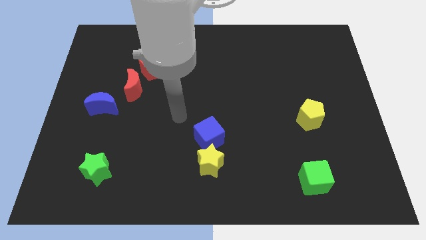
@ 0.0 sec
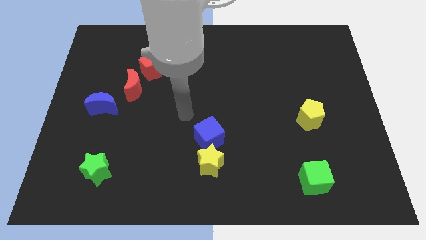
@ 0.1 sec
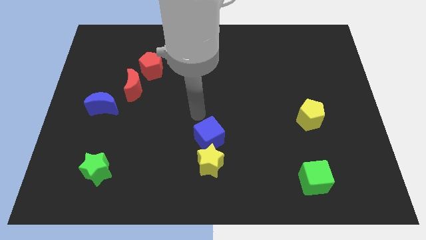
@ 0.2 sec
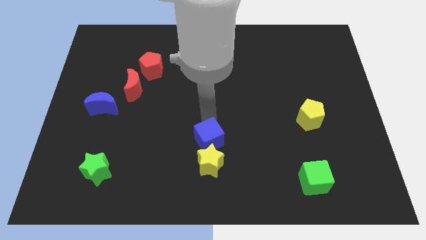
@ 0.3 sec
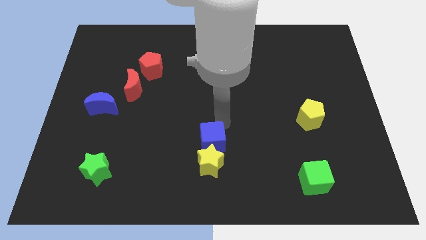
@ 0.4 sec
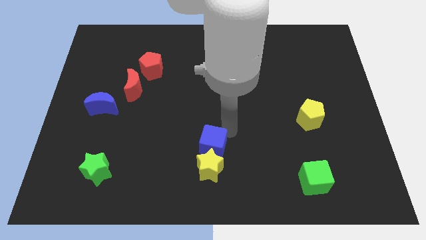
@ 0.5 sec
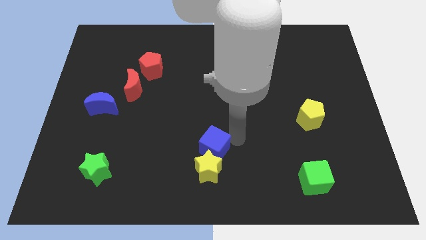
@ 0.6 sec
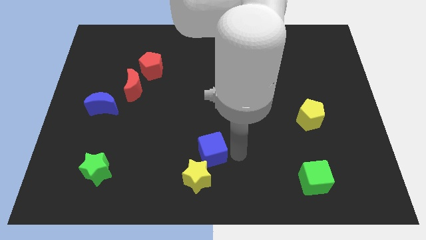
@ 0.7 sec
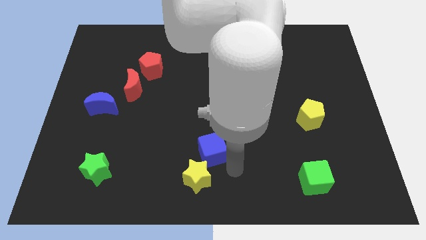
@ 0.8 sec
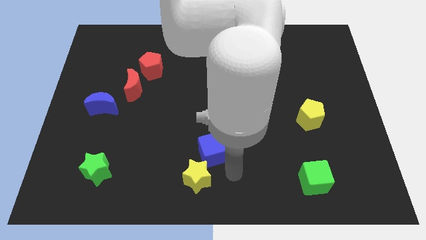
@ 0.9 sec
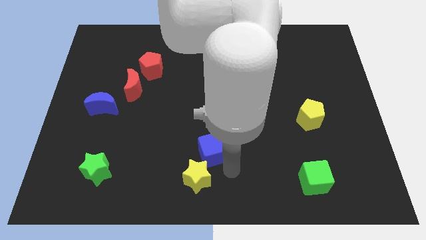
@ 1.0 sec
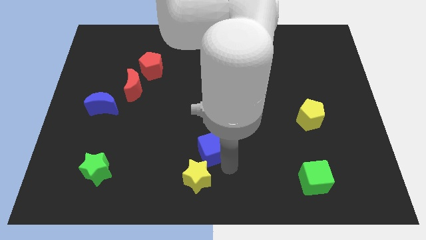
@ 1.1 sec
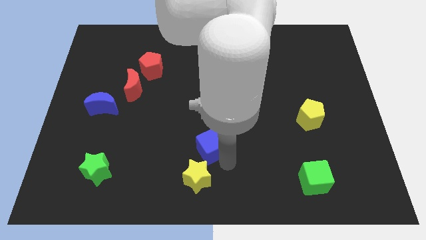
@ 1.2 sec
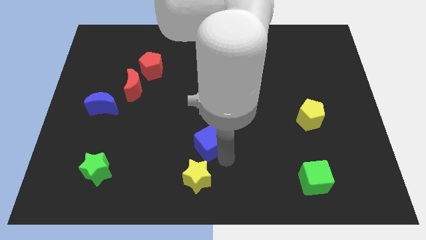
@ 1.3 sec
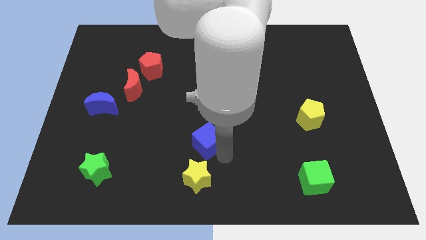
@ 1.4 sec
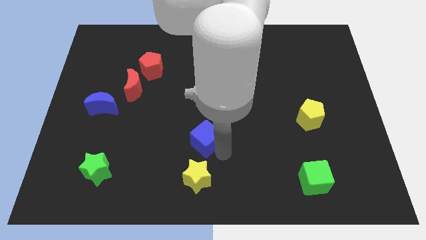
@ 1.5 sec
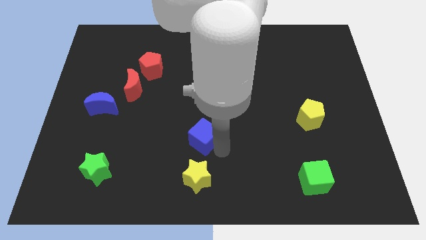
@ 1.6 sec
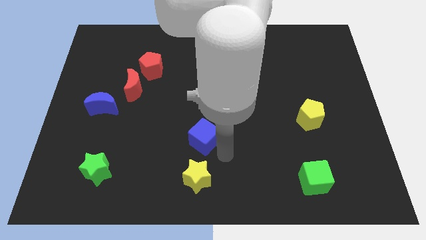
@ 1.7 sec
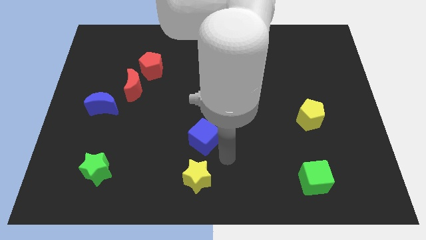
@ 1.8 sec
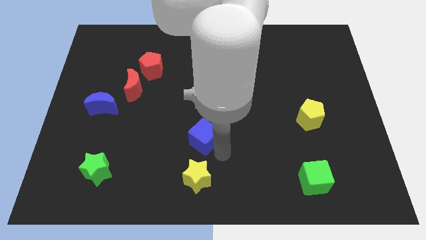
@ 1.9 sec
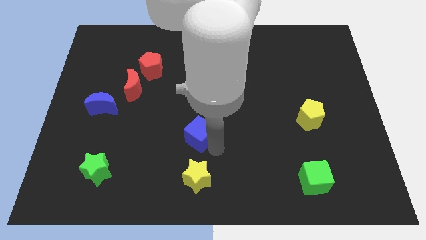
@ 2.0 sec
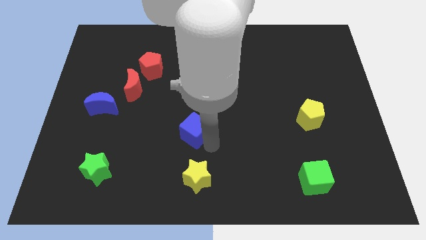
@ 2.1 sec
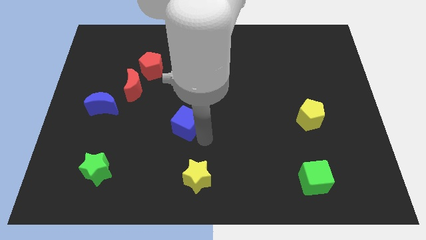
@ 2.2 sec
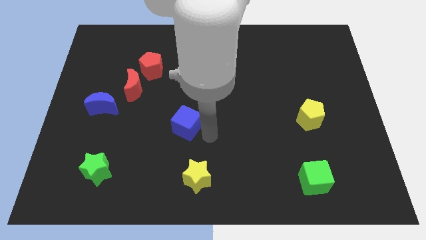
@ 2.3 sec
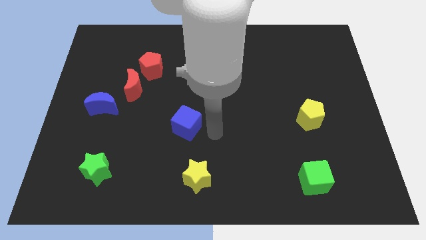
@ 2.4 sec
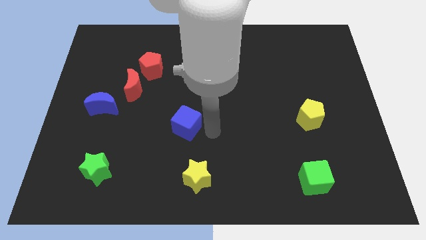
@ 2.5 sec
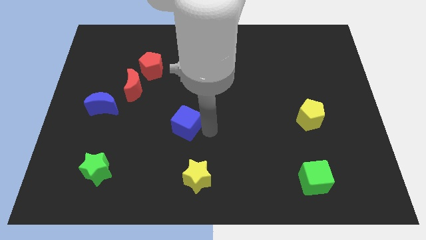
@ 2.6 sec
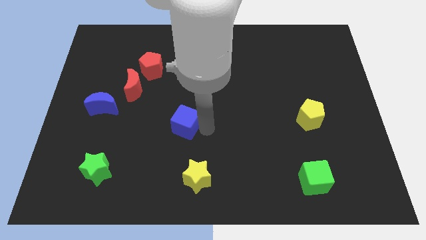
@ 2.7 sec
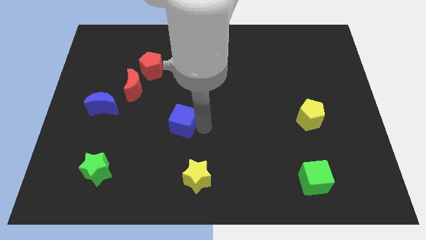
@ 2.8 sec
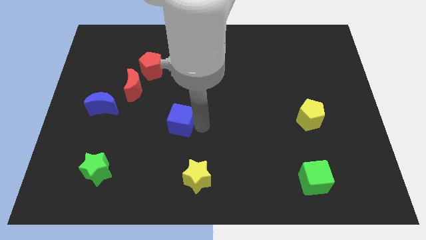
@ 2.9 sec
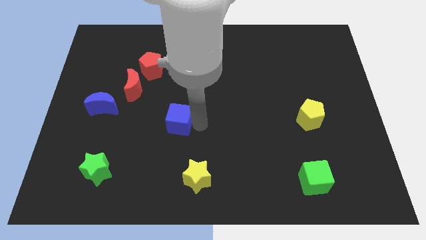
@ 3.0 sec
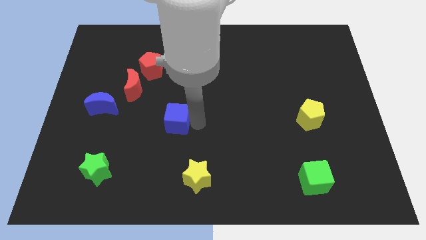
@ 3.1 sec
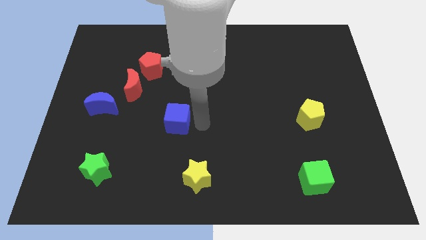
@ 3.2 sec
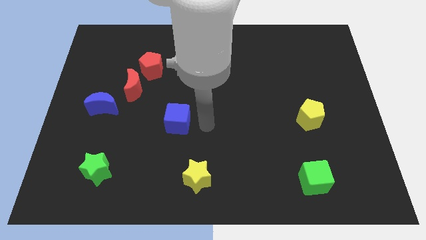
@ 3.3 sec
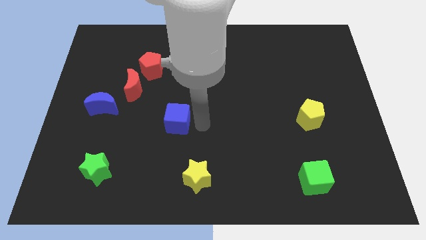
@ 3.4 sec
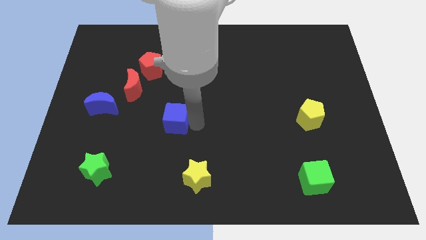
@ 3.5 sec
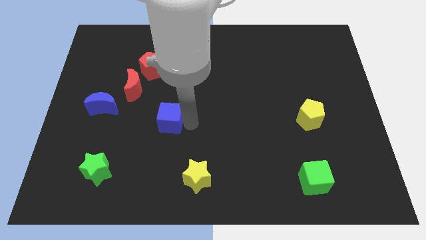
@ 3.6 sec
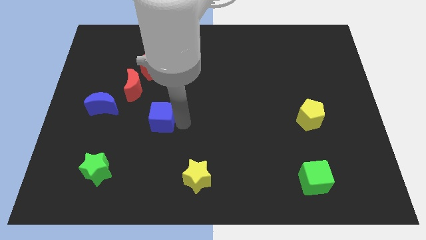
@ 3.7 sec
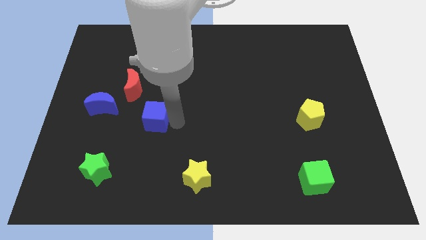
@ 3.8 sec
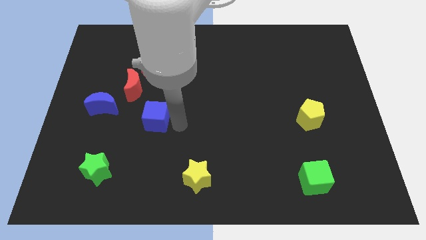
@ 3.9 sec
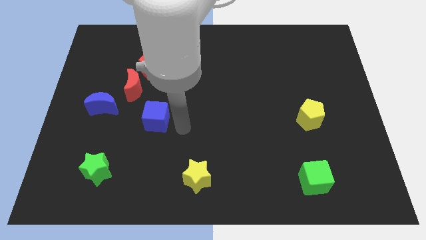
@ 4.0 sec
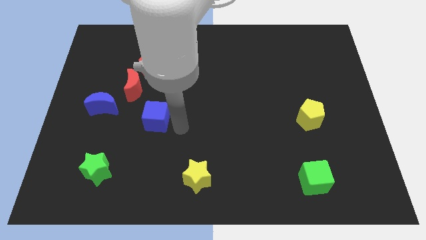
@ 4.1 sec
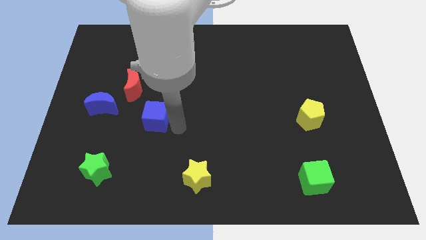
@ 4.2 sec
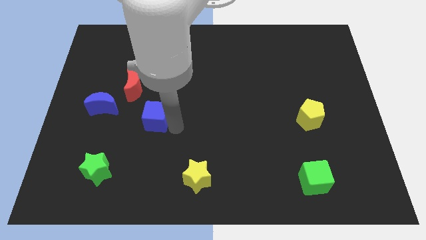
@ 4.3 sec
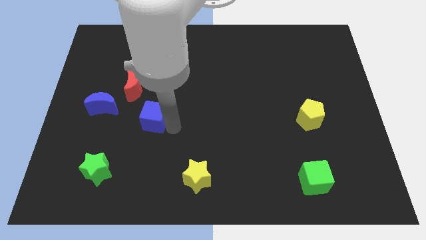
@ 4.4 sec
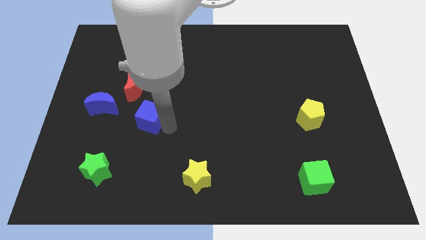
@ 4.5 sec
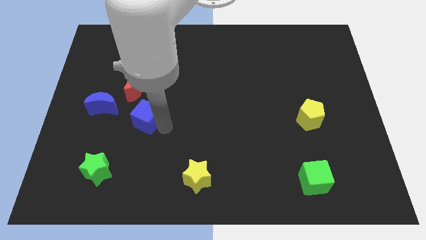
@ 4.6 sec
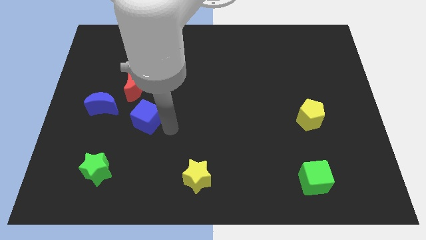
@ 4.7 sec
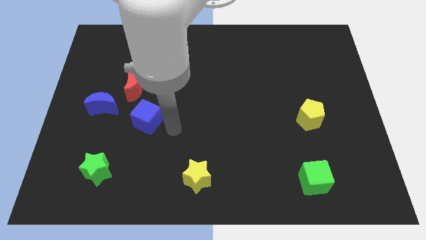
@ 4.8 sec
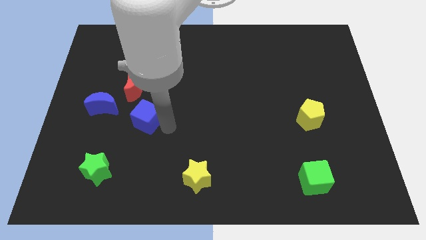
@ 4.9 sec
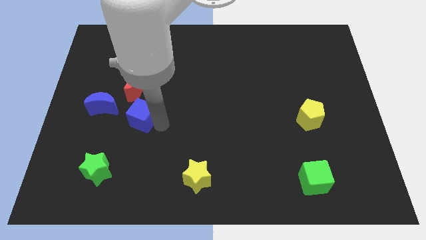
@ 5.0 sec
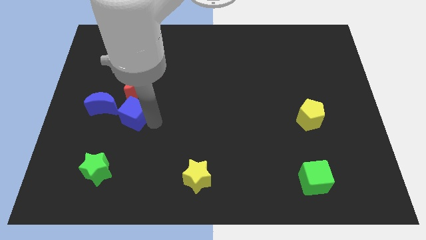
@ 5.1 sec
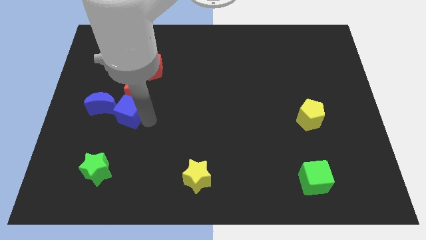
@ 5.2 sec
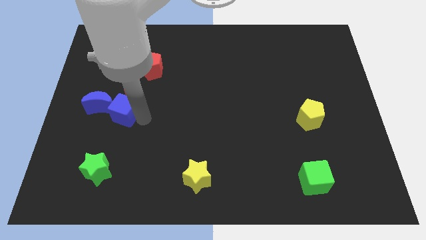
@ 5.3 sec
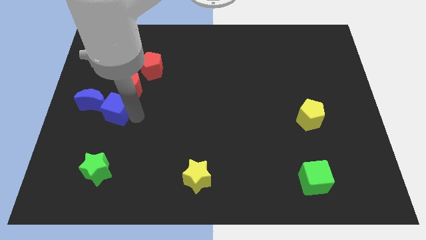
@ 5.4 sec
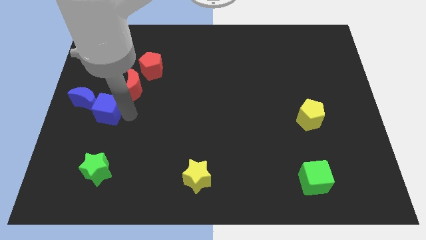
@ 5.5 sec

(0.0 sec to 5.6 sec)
push the blue cube next to the blue moon

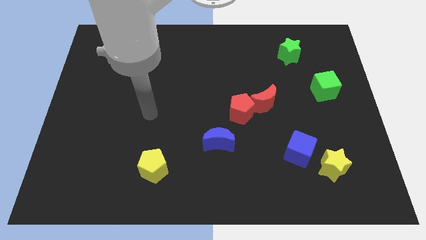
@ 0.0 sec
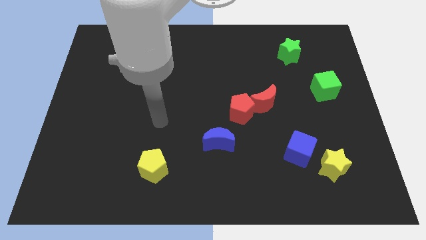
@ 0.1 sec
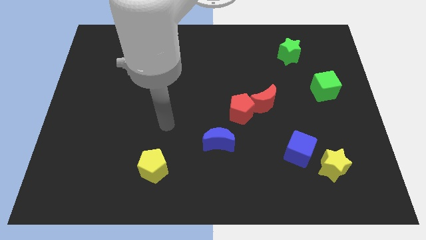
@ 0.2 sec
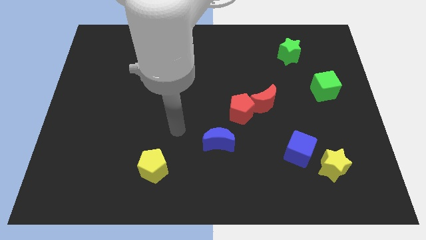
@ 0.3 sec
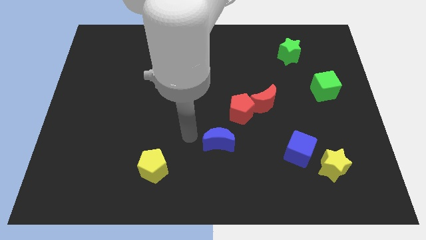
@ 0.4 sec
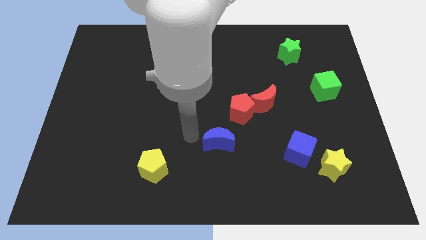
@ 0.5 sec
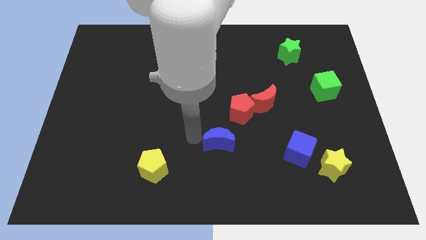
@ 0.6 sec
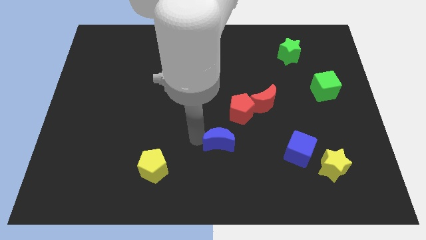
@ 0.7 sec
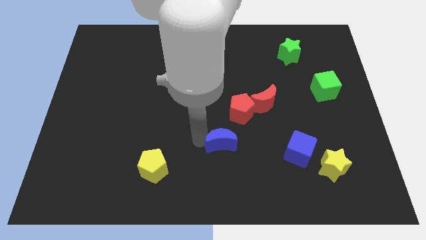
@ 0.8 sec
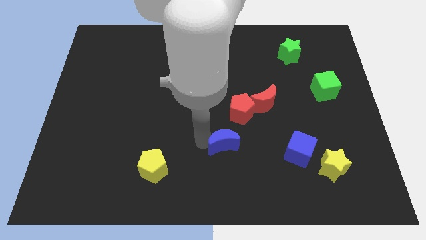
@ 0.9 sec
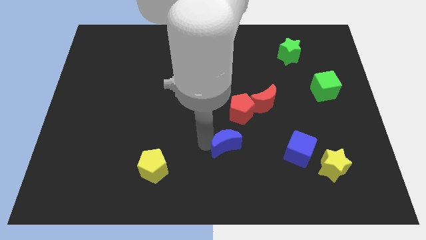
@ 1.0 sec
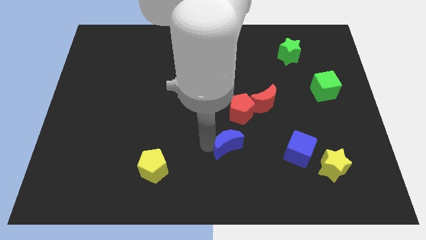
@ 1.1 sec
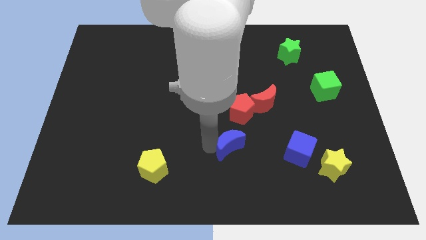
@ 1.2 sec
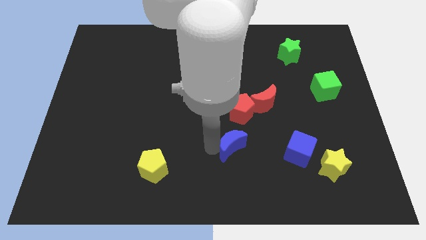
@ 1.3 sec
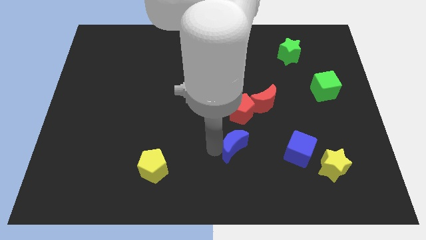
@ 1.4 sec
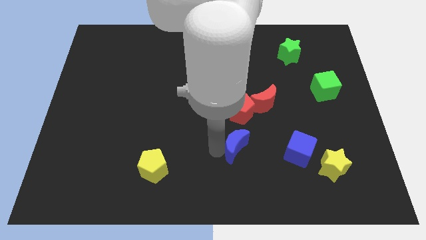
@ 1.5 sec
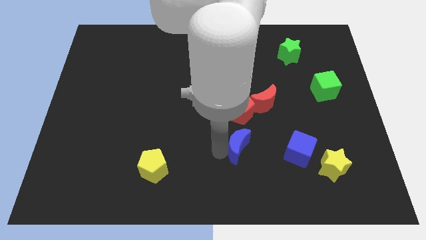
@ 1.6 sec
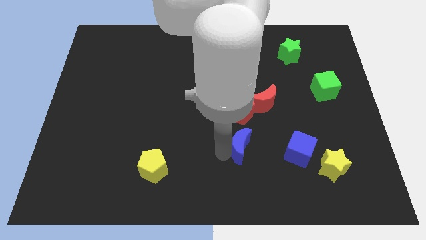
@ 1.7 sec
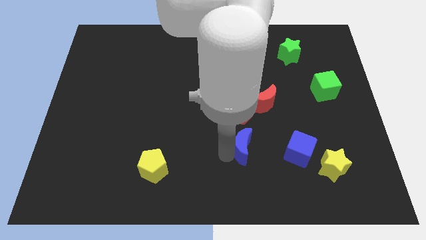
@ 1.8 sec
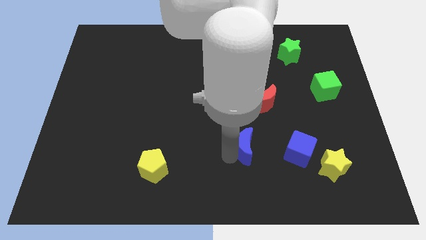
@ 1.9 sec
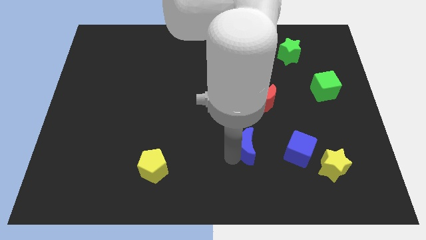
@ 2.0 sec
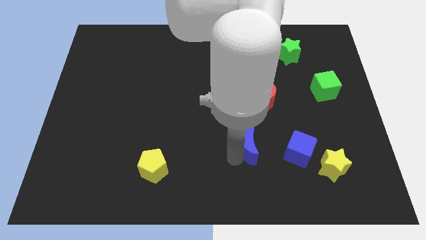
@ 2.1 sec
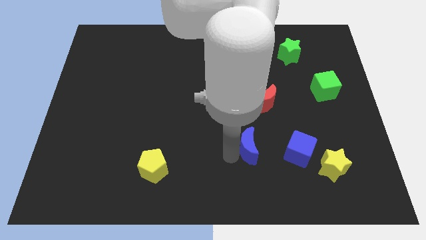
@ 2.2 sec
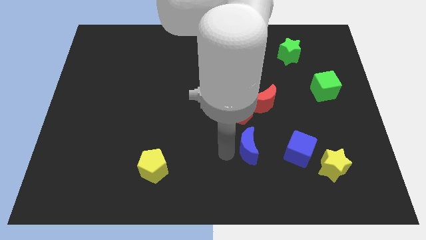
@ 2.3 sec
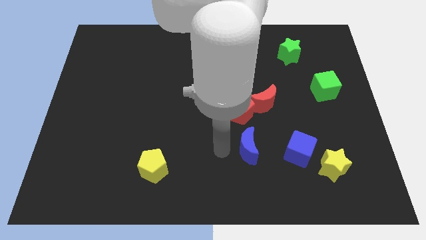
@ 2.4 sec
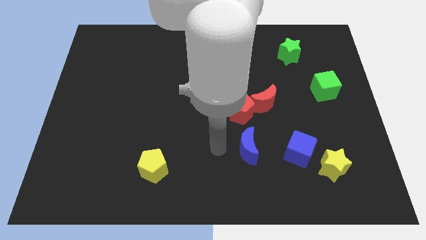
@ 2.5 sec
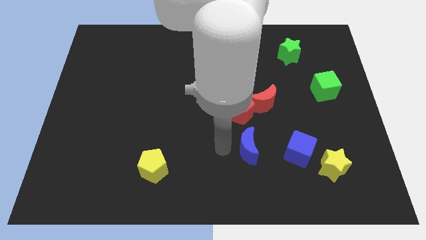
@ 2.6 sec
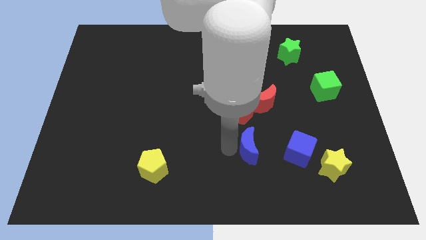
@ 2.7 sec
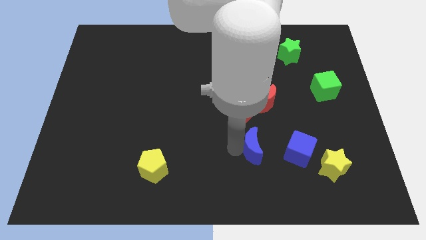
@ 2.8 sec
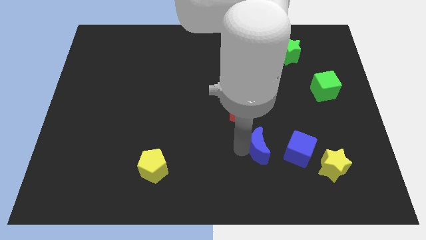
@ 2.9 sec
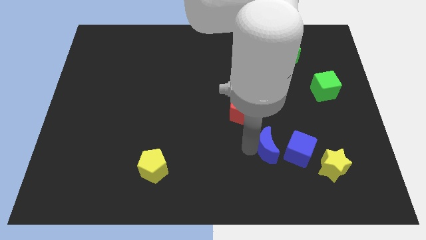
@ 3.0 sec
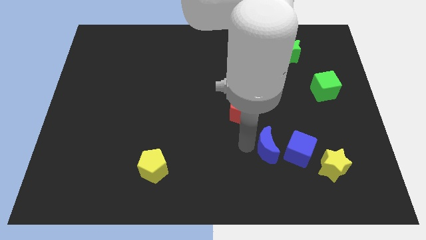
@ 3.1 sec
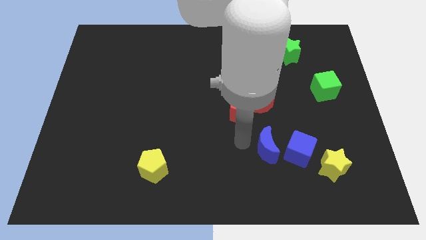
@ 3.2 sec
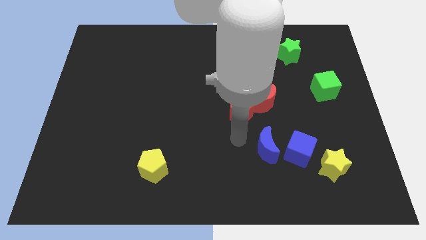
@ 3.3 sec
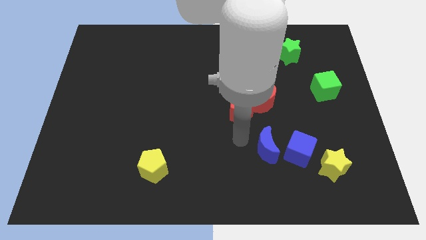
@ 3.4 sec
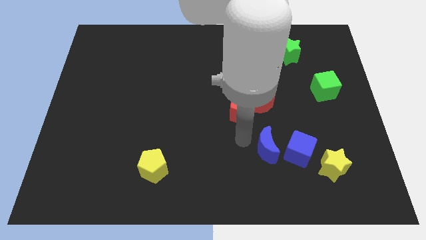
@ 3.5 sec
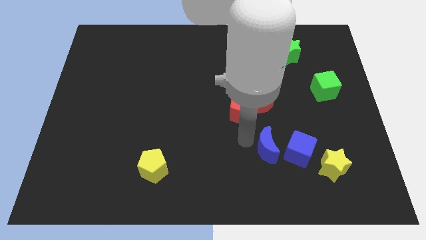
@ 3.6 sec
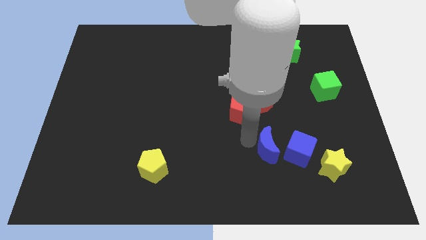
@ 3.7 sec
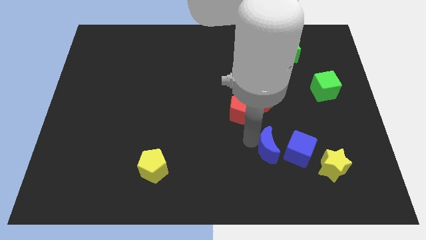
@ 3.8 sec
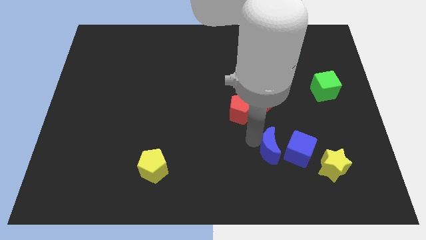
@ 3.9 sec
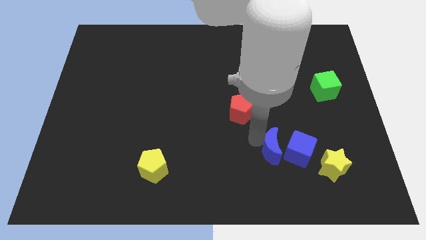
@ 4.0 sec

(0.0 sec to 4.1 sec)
push the blue moon to the blue cube
